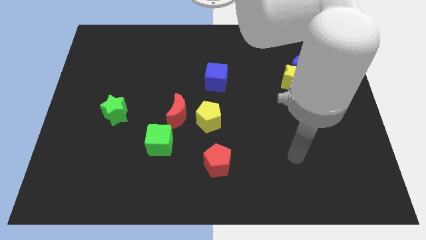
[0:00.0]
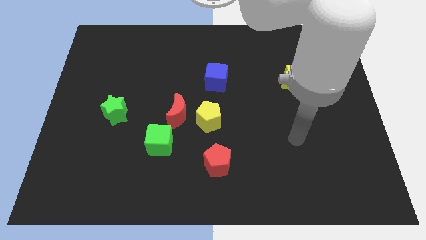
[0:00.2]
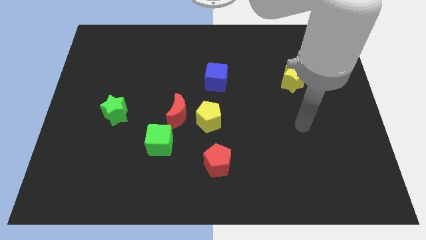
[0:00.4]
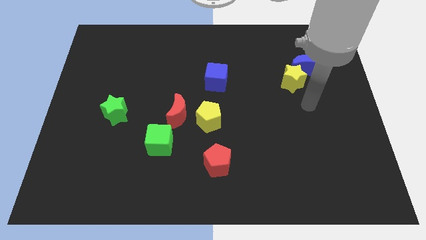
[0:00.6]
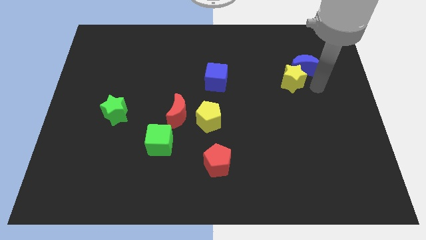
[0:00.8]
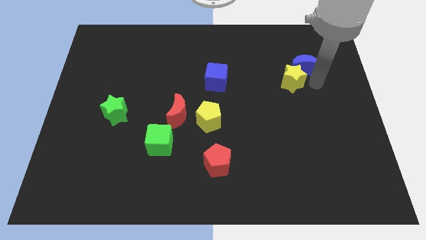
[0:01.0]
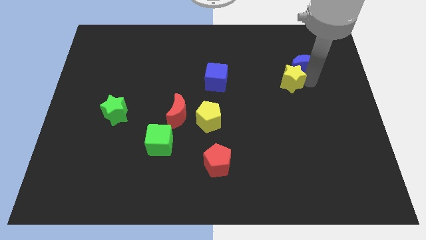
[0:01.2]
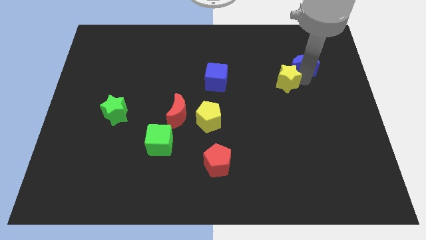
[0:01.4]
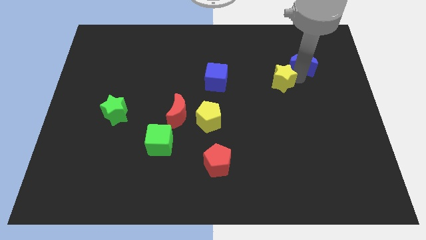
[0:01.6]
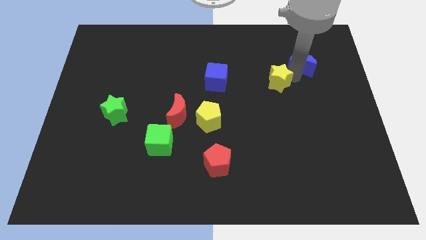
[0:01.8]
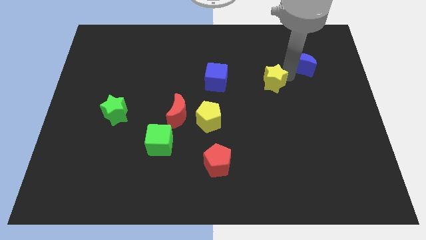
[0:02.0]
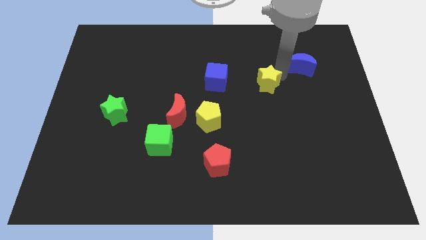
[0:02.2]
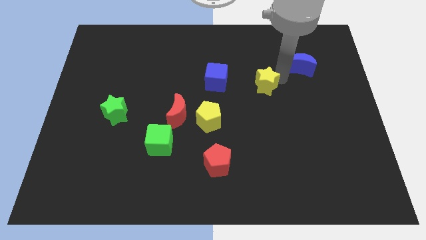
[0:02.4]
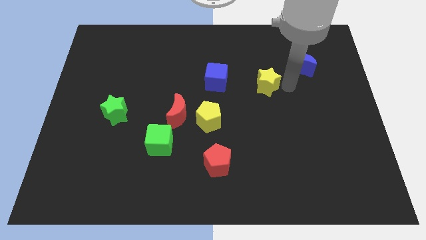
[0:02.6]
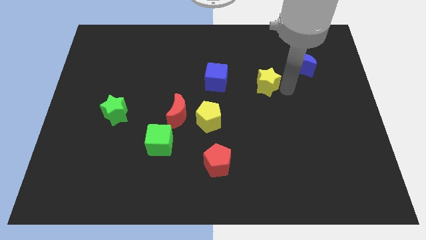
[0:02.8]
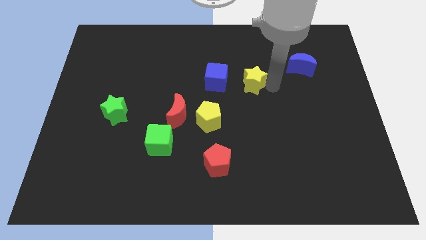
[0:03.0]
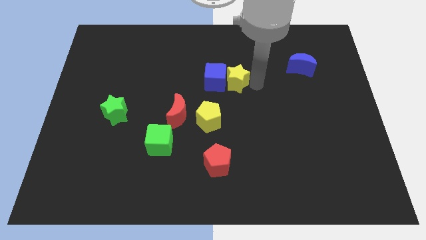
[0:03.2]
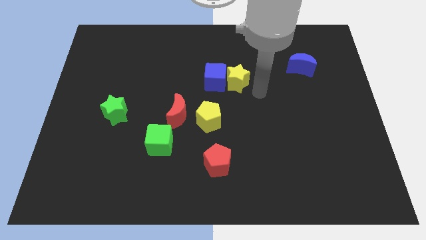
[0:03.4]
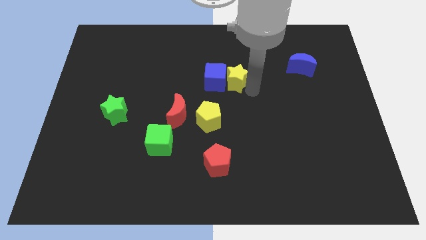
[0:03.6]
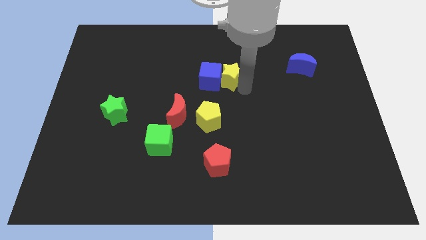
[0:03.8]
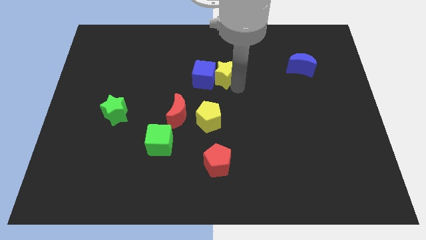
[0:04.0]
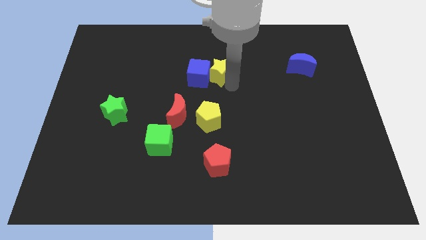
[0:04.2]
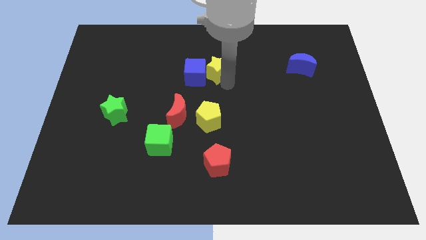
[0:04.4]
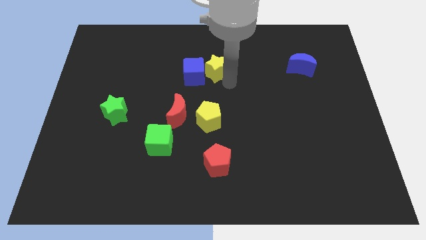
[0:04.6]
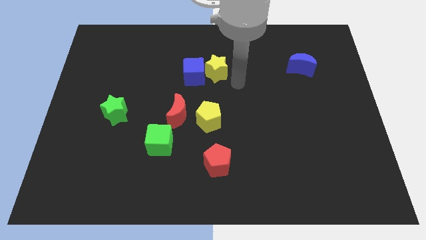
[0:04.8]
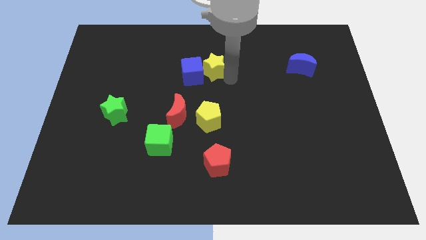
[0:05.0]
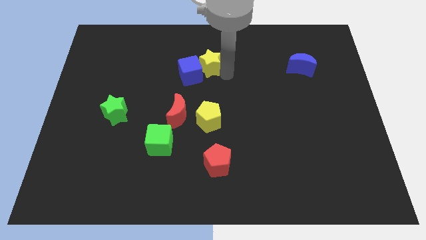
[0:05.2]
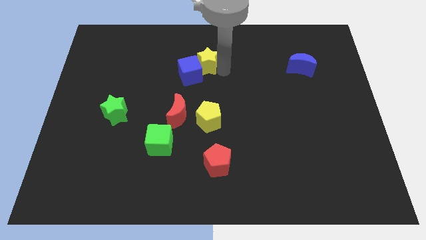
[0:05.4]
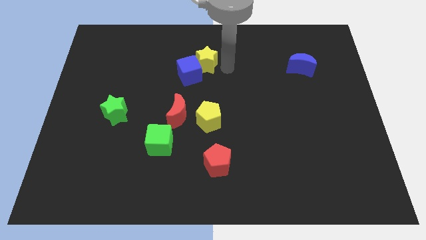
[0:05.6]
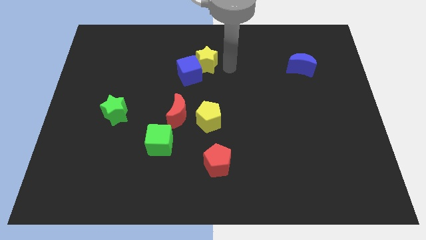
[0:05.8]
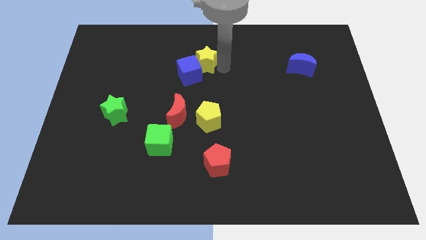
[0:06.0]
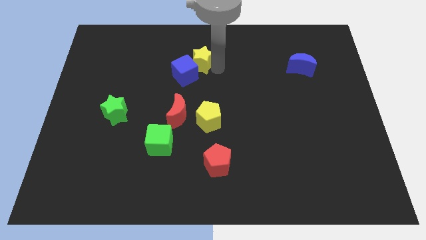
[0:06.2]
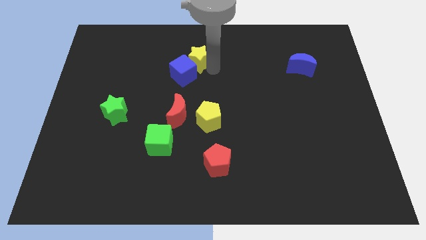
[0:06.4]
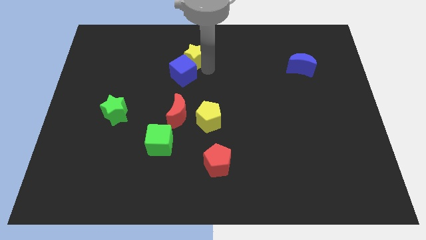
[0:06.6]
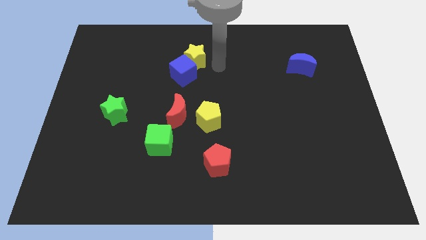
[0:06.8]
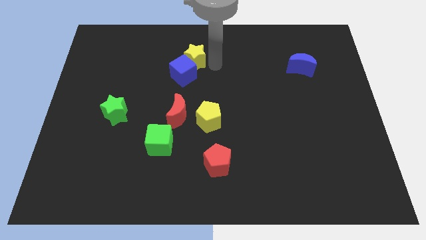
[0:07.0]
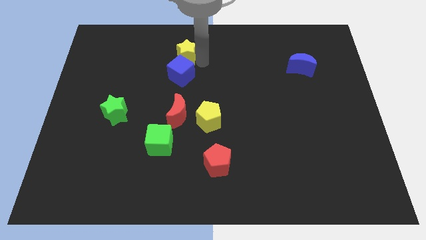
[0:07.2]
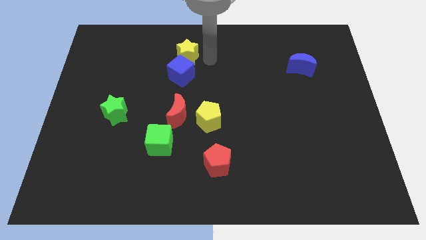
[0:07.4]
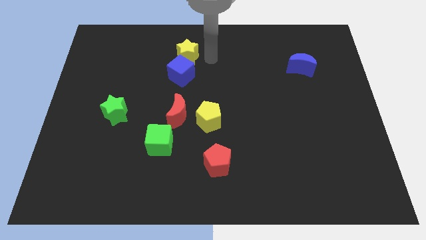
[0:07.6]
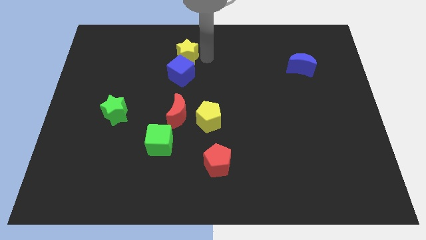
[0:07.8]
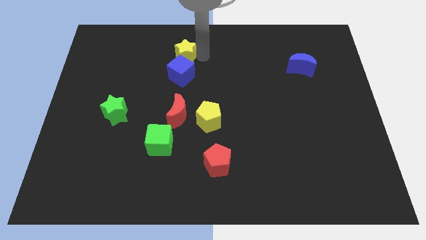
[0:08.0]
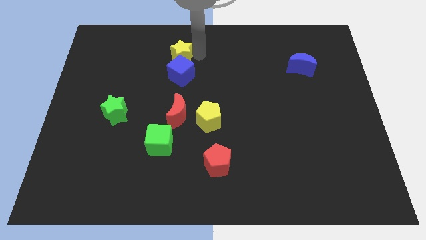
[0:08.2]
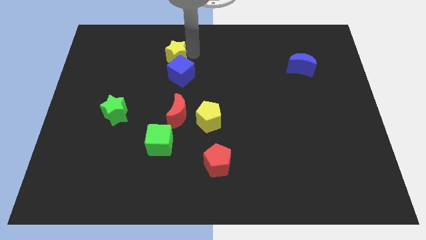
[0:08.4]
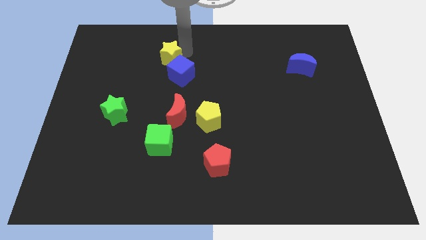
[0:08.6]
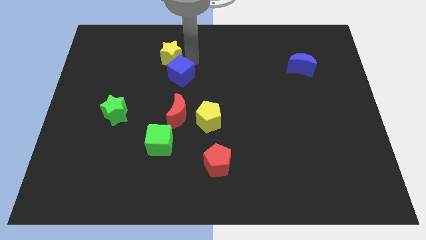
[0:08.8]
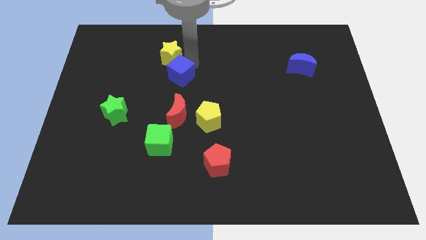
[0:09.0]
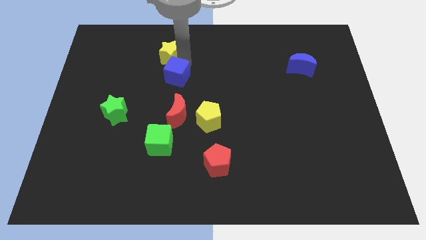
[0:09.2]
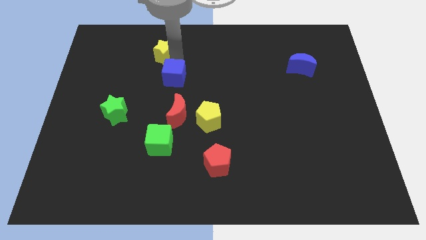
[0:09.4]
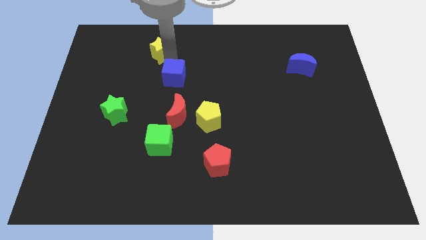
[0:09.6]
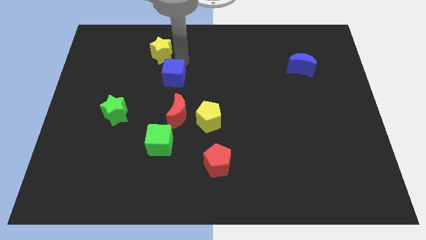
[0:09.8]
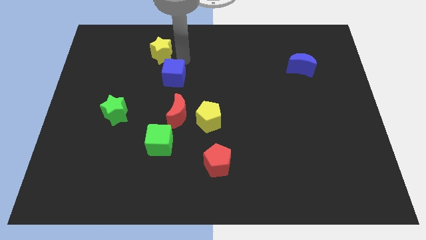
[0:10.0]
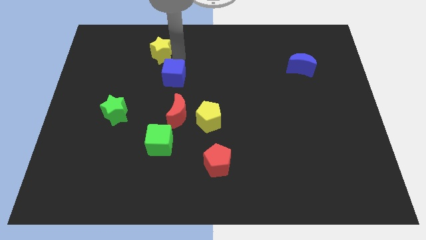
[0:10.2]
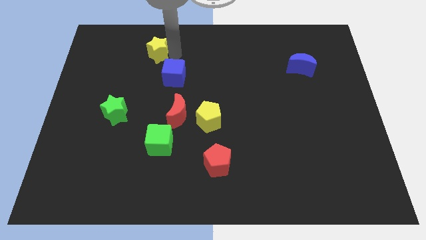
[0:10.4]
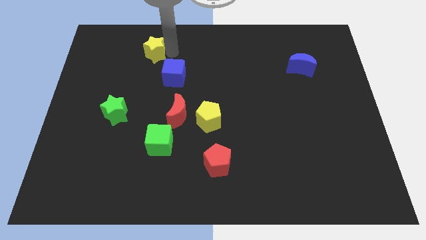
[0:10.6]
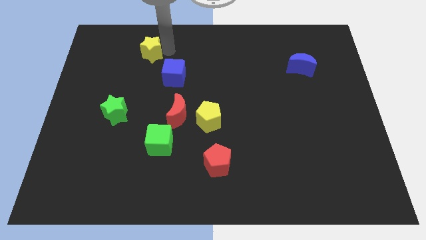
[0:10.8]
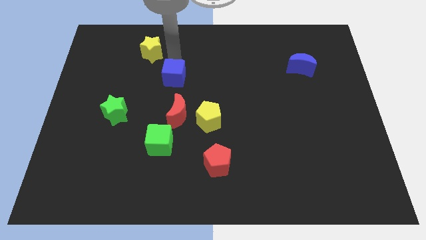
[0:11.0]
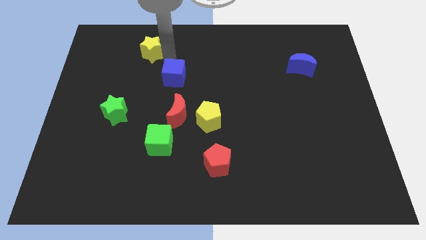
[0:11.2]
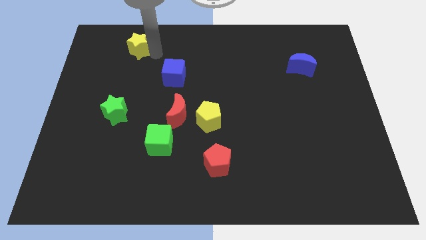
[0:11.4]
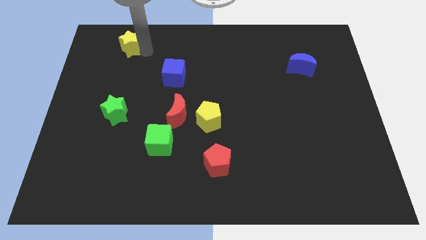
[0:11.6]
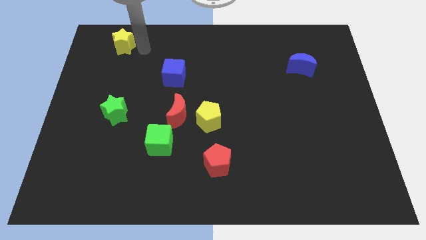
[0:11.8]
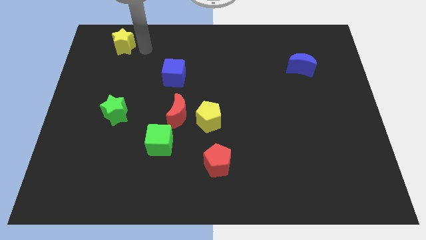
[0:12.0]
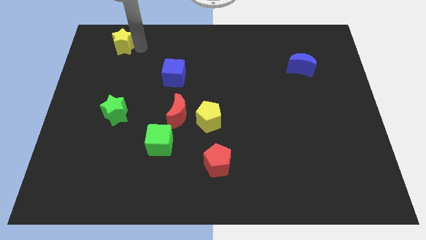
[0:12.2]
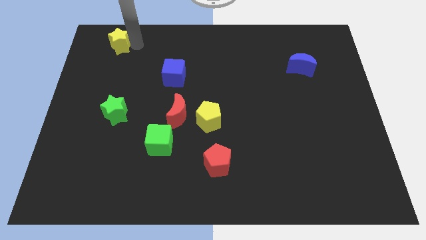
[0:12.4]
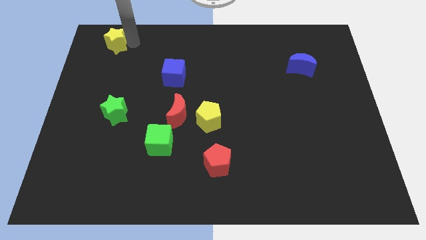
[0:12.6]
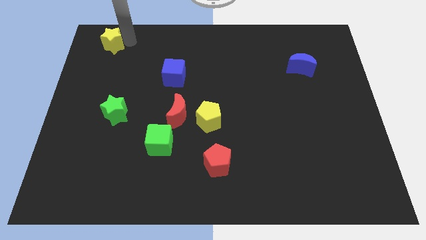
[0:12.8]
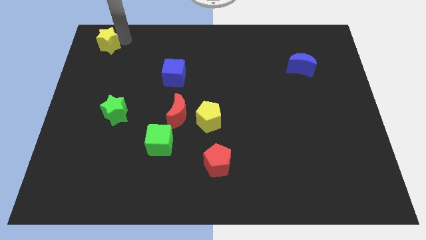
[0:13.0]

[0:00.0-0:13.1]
put the yellow star to the top left corner
